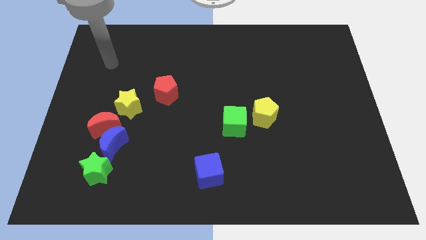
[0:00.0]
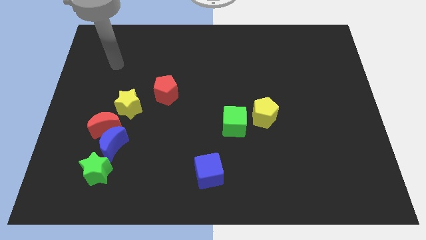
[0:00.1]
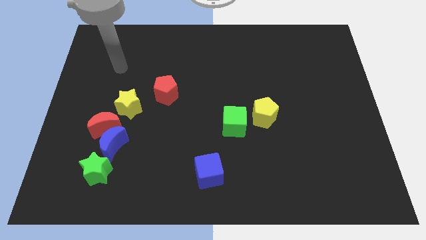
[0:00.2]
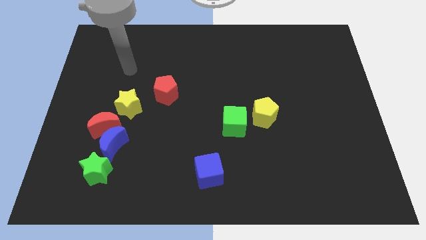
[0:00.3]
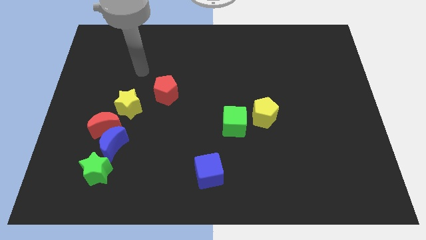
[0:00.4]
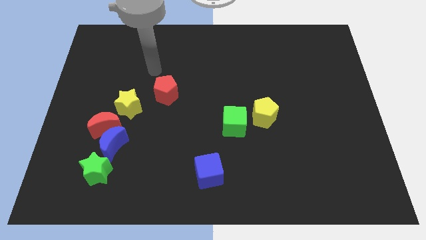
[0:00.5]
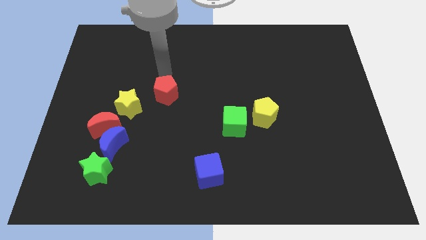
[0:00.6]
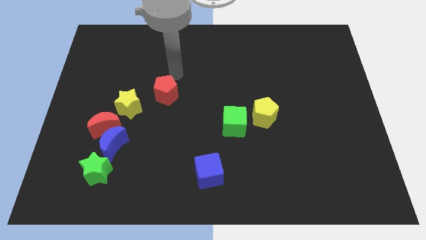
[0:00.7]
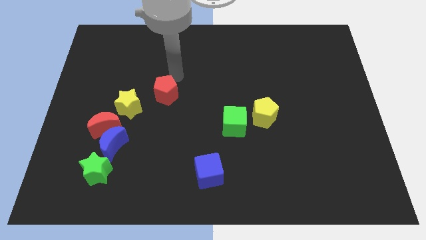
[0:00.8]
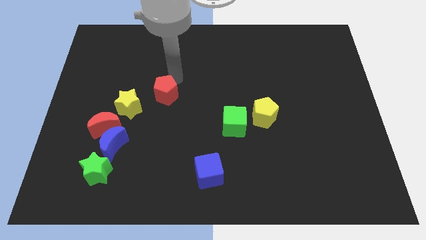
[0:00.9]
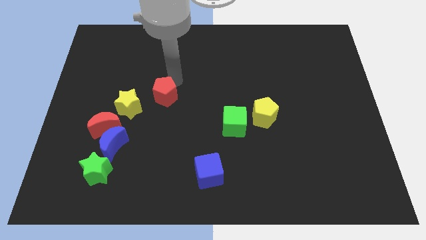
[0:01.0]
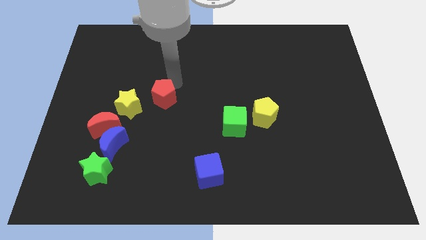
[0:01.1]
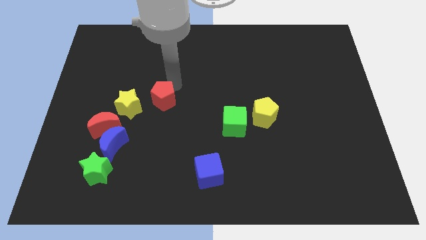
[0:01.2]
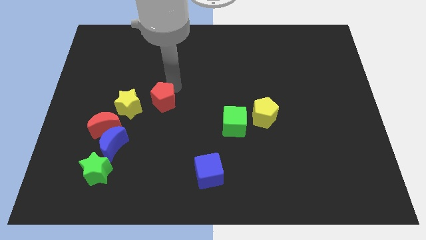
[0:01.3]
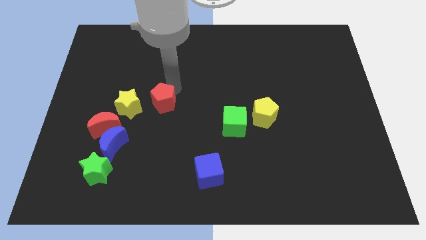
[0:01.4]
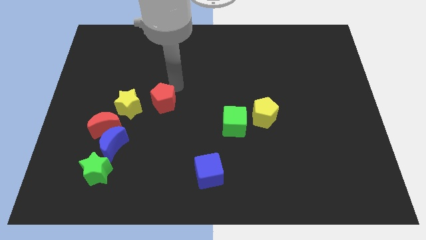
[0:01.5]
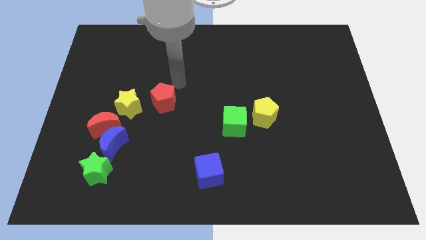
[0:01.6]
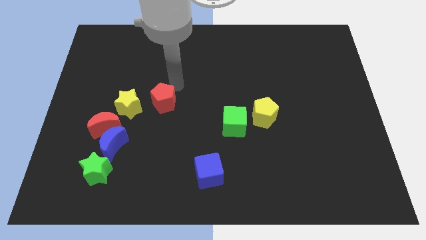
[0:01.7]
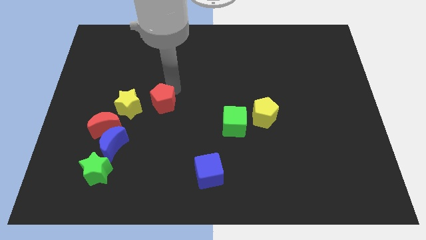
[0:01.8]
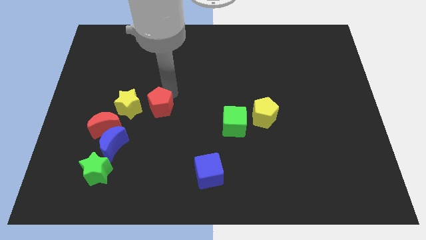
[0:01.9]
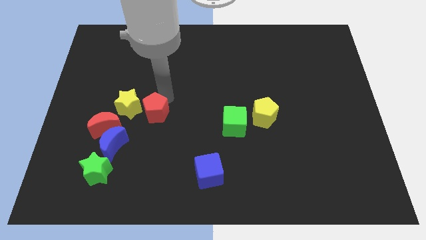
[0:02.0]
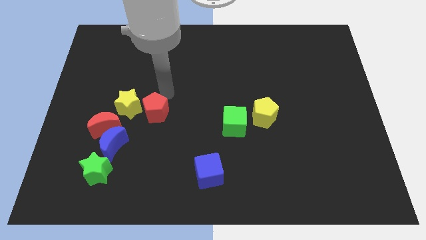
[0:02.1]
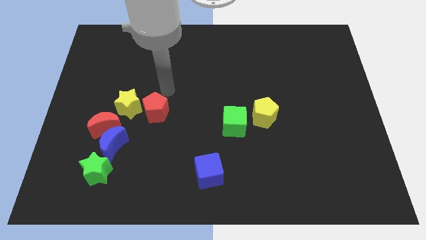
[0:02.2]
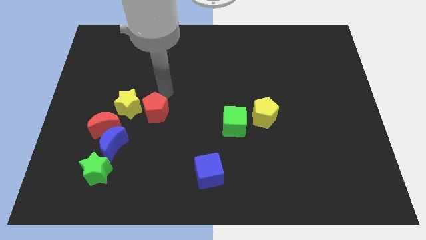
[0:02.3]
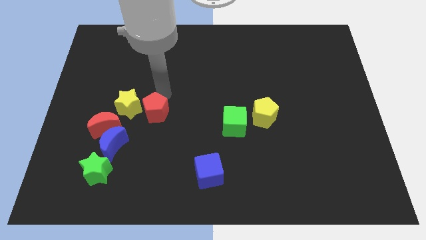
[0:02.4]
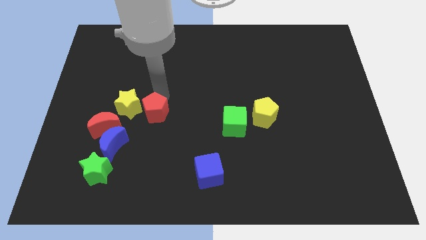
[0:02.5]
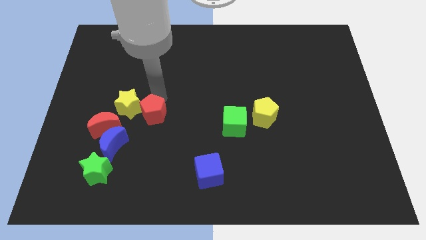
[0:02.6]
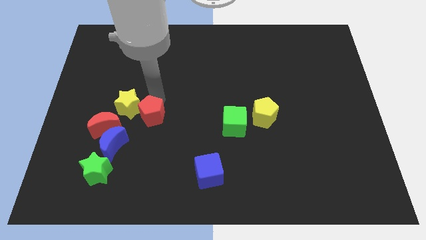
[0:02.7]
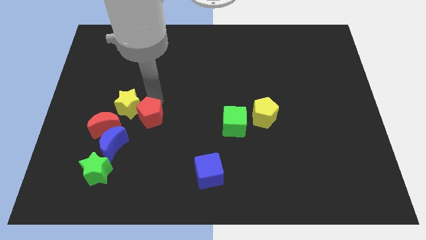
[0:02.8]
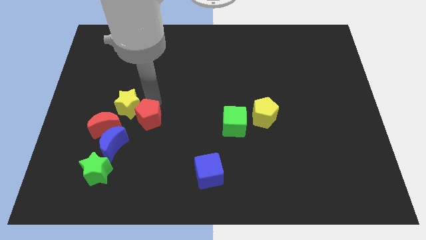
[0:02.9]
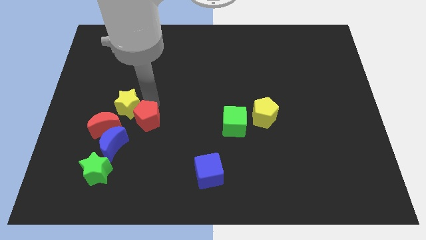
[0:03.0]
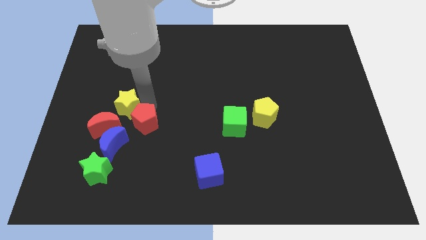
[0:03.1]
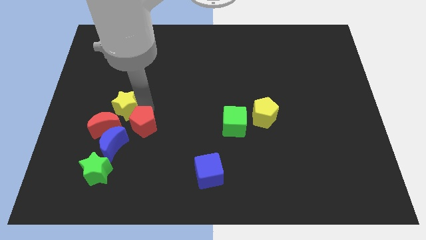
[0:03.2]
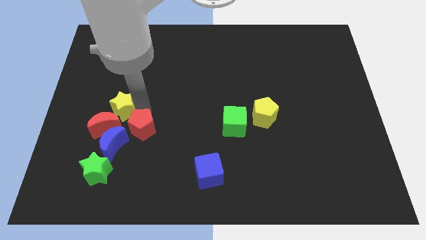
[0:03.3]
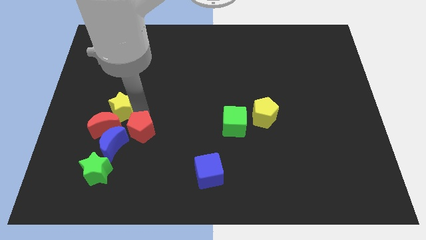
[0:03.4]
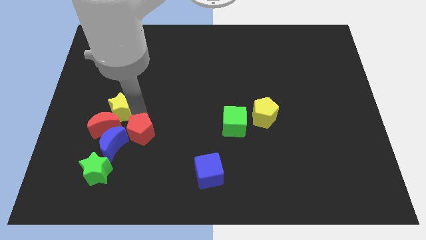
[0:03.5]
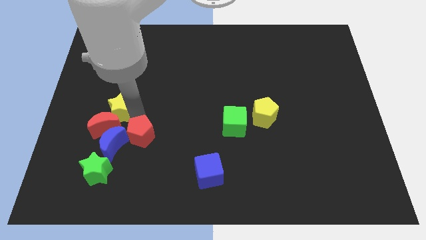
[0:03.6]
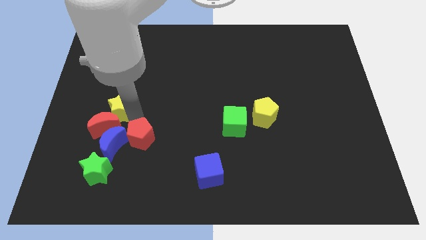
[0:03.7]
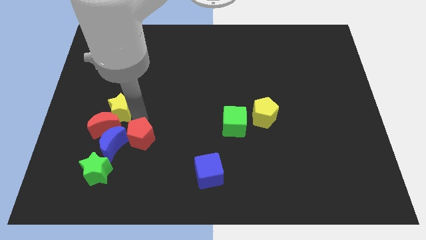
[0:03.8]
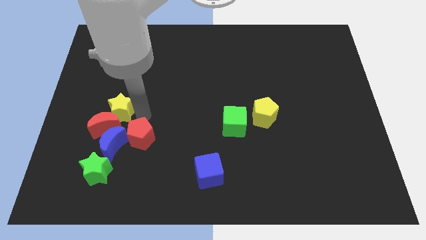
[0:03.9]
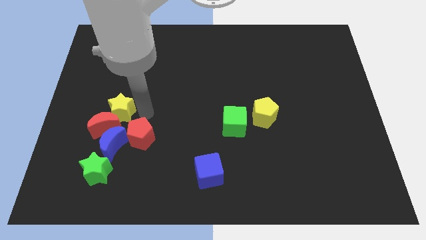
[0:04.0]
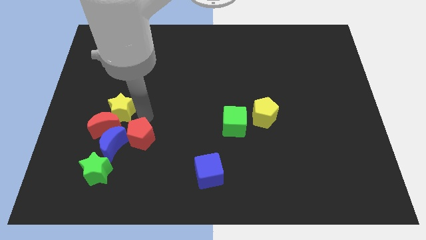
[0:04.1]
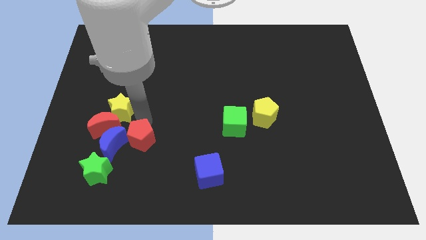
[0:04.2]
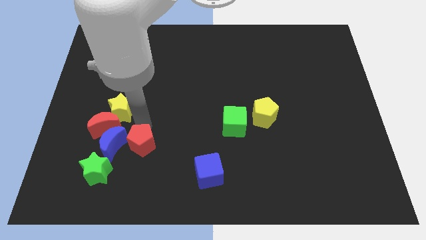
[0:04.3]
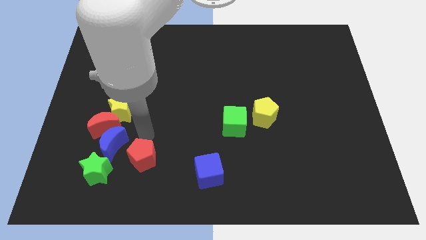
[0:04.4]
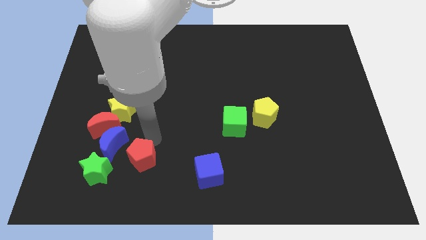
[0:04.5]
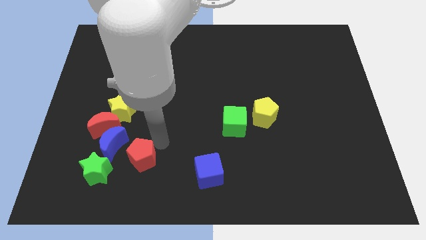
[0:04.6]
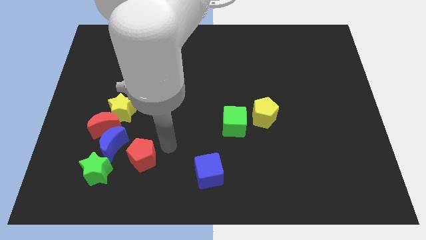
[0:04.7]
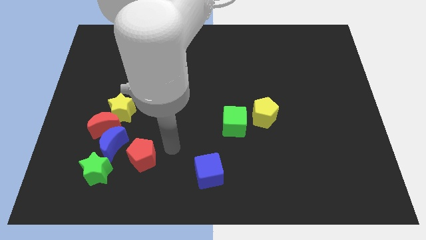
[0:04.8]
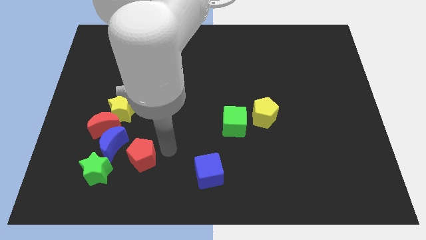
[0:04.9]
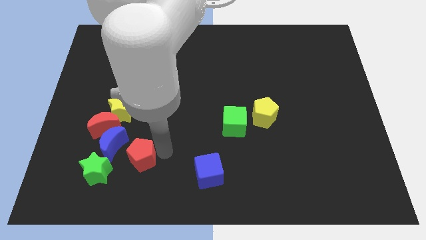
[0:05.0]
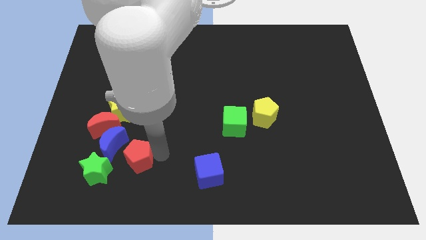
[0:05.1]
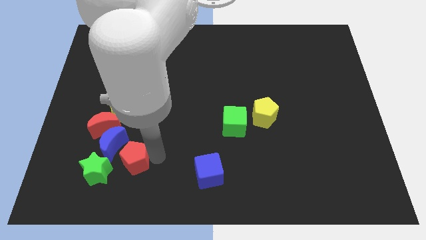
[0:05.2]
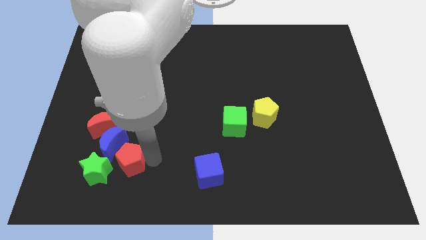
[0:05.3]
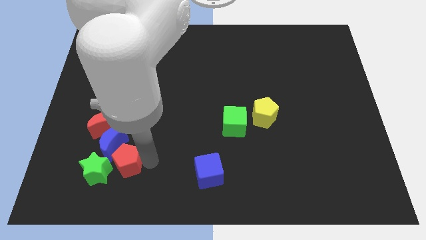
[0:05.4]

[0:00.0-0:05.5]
put the red pentagon next to the green star

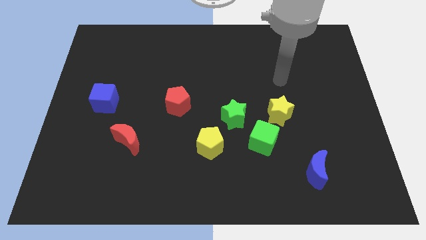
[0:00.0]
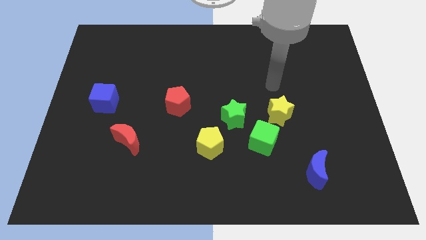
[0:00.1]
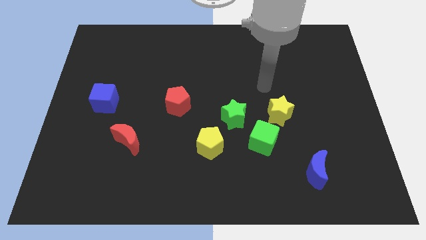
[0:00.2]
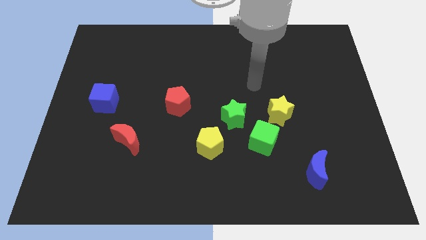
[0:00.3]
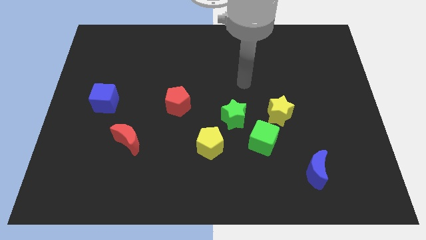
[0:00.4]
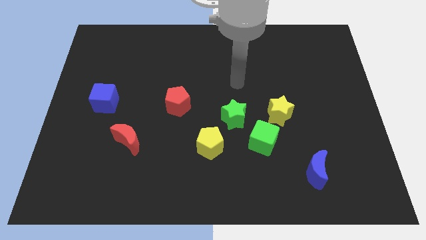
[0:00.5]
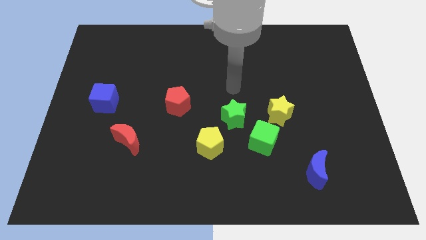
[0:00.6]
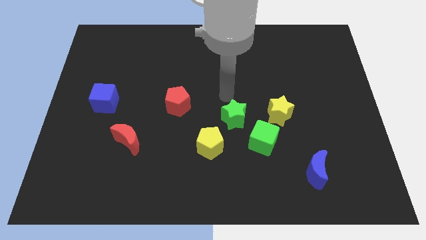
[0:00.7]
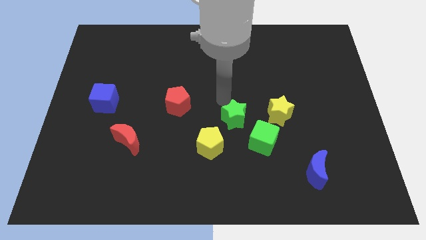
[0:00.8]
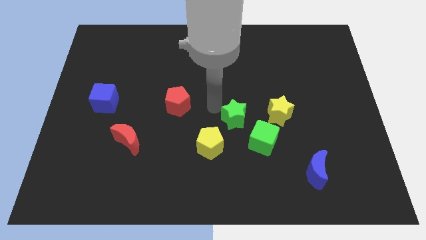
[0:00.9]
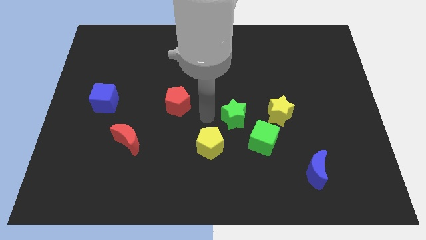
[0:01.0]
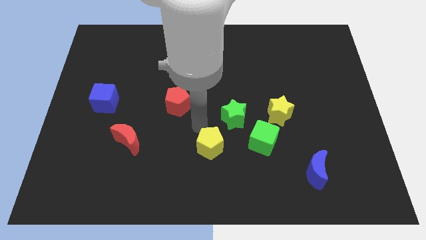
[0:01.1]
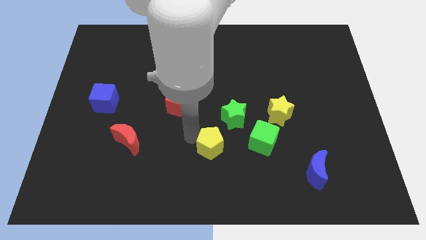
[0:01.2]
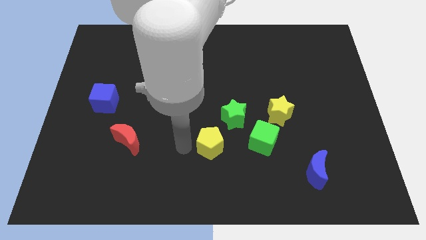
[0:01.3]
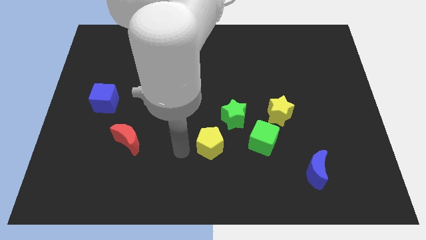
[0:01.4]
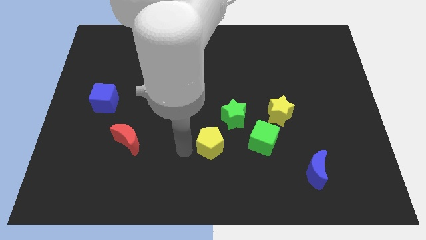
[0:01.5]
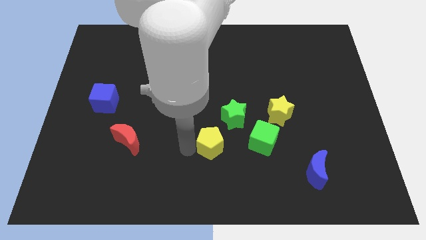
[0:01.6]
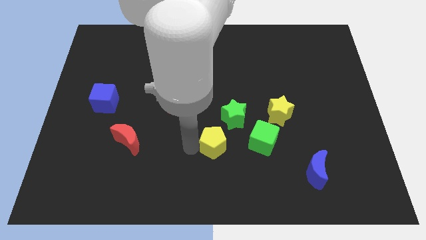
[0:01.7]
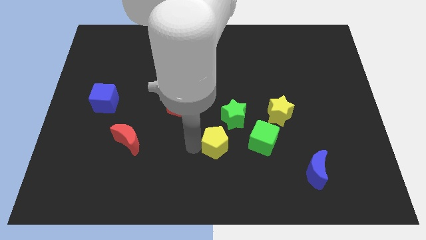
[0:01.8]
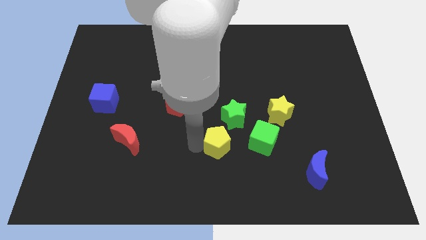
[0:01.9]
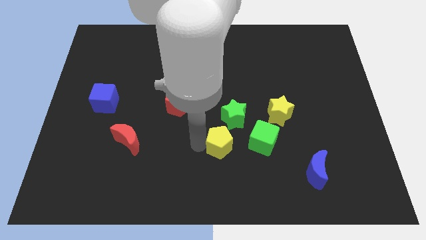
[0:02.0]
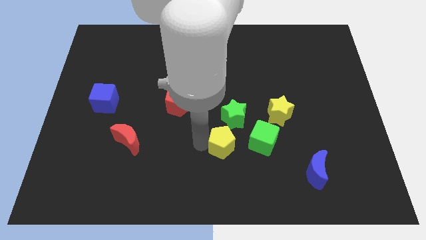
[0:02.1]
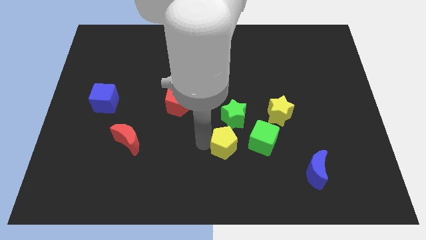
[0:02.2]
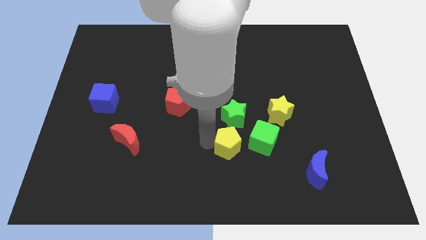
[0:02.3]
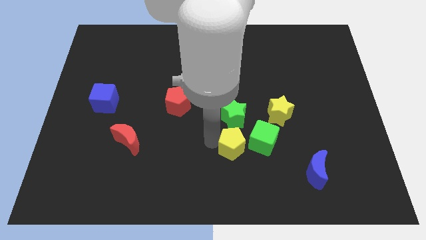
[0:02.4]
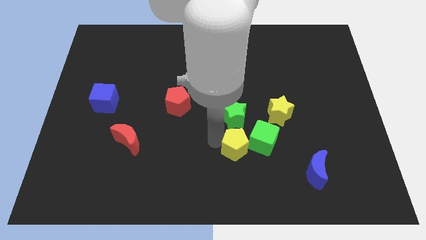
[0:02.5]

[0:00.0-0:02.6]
slide the yellow pentagon next to the green cube
